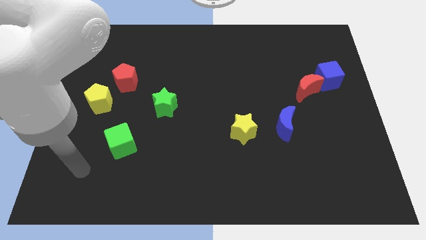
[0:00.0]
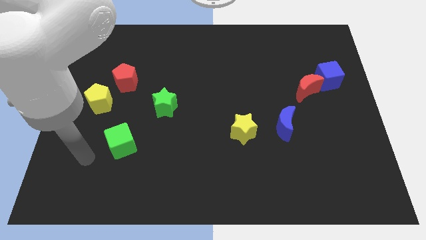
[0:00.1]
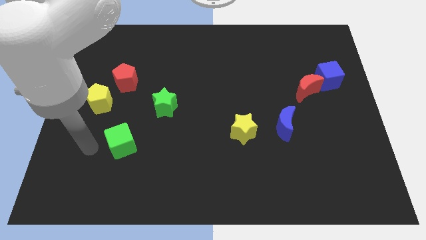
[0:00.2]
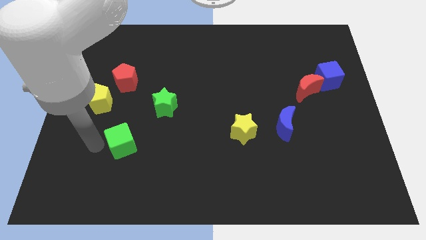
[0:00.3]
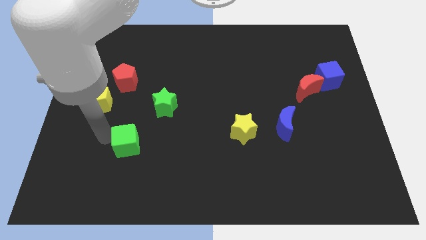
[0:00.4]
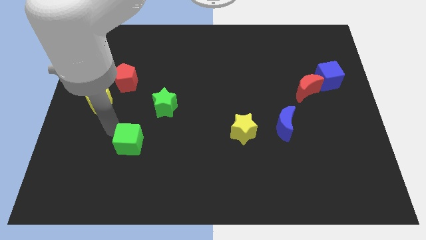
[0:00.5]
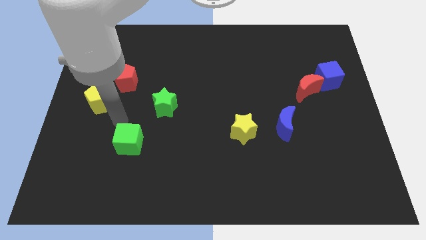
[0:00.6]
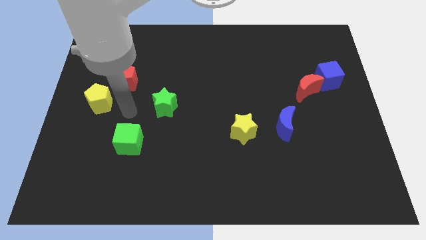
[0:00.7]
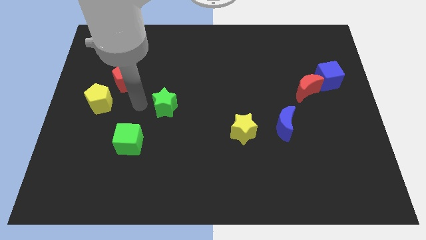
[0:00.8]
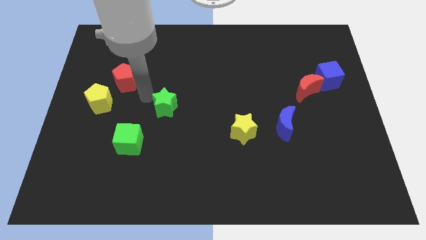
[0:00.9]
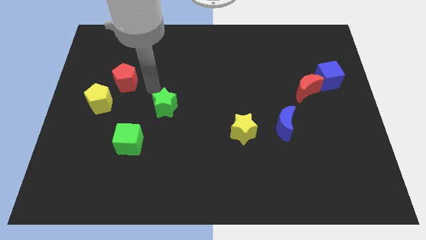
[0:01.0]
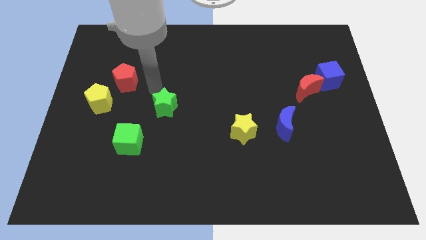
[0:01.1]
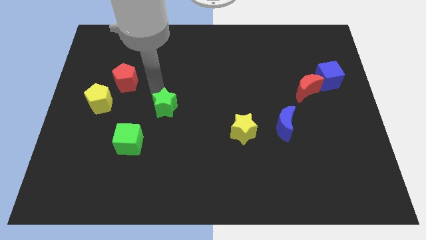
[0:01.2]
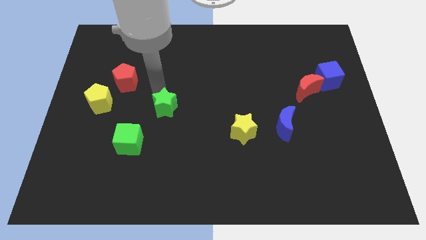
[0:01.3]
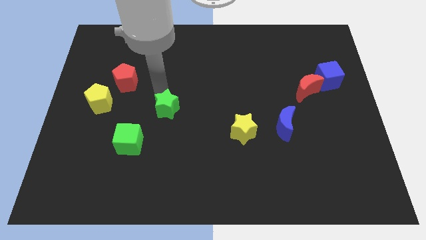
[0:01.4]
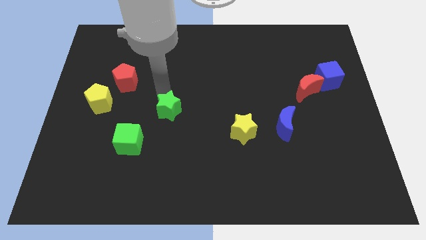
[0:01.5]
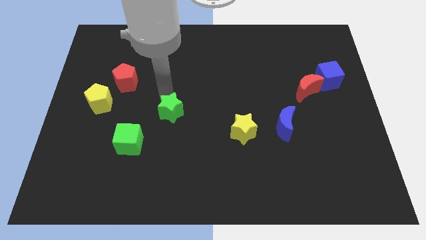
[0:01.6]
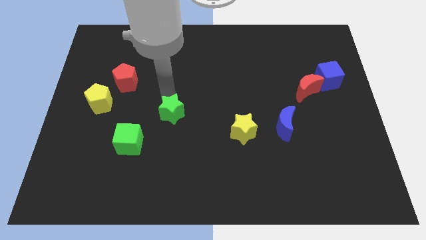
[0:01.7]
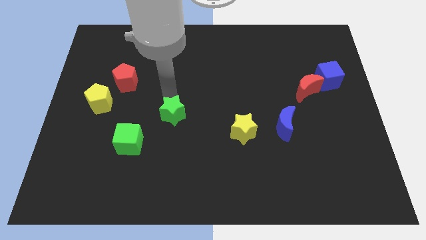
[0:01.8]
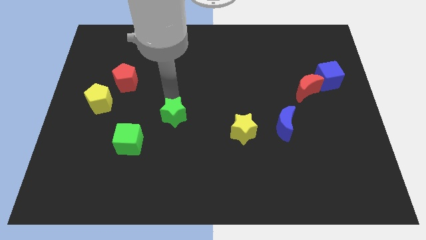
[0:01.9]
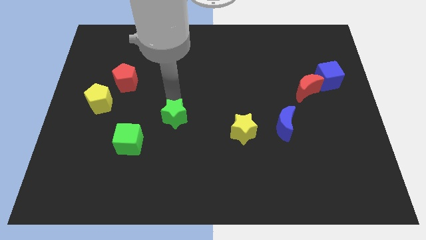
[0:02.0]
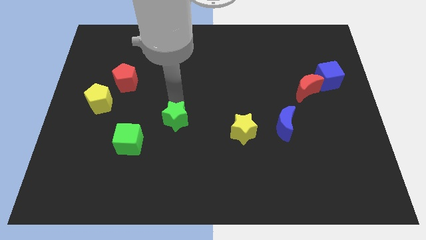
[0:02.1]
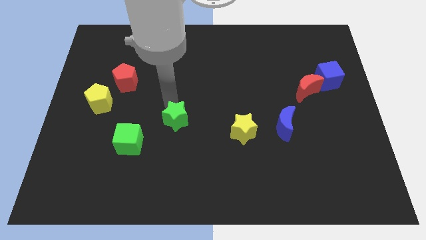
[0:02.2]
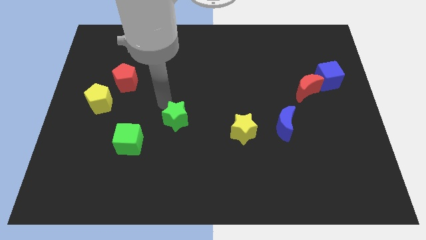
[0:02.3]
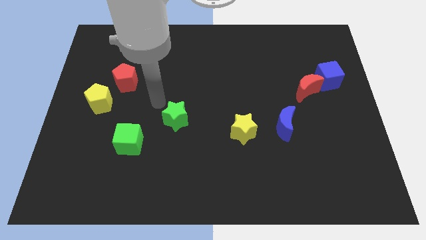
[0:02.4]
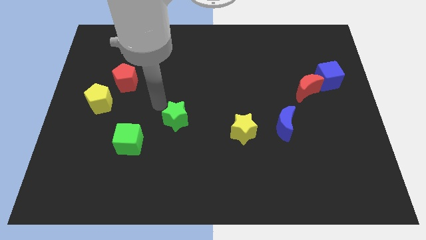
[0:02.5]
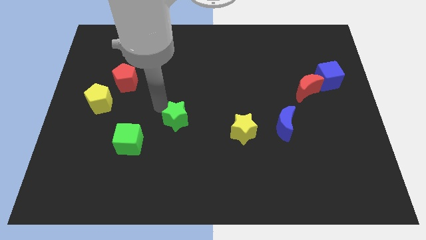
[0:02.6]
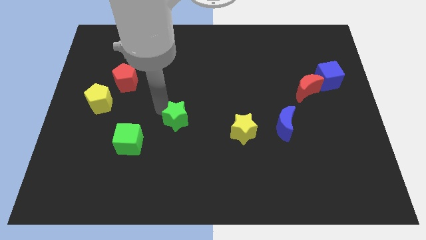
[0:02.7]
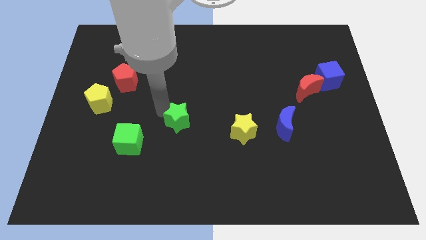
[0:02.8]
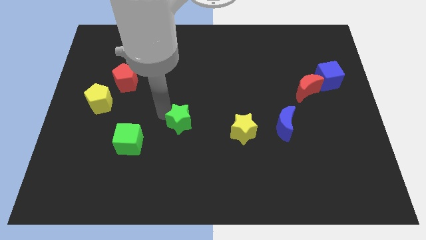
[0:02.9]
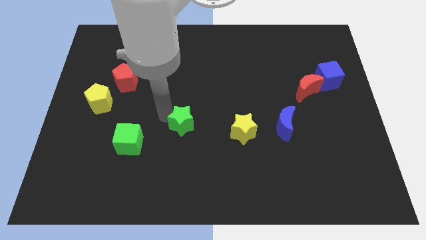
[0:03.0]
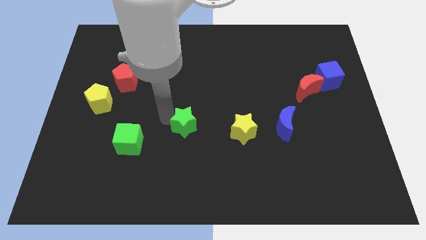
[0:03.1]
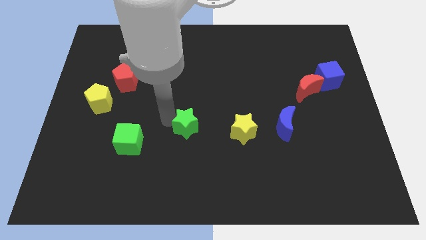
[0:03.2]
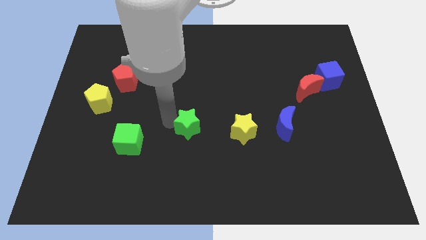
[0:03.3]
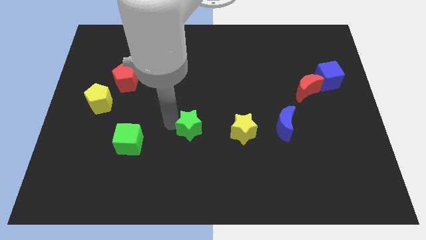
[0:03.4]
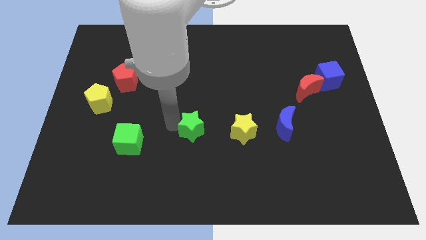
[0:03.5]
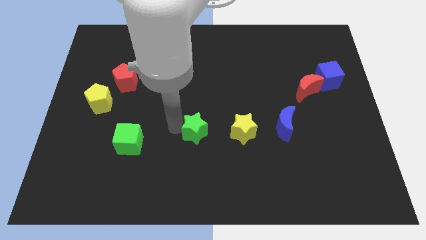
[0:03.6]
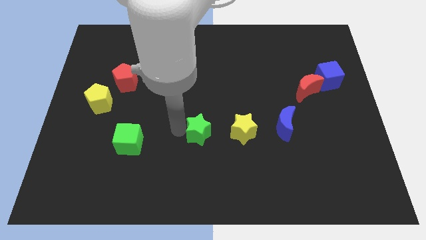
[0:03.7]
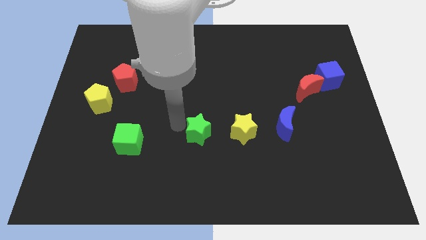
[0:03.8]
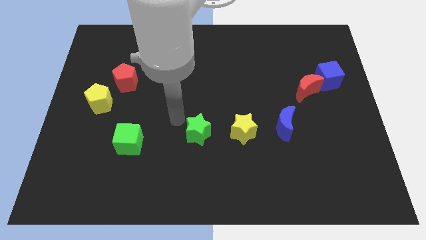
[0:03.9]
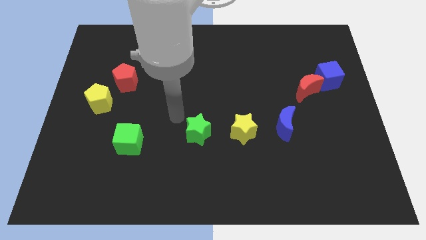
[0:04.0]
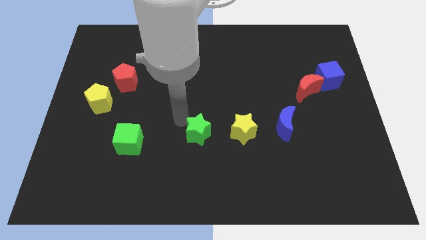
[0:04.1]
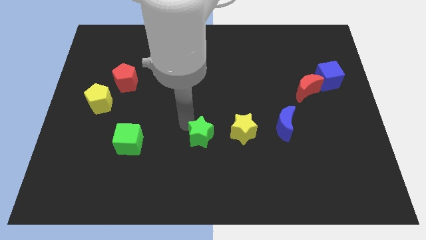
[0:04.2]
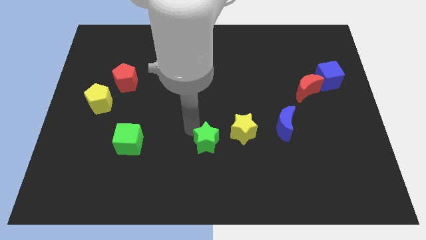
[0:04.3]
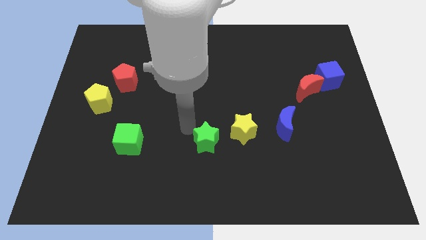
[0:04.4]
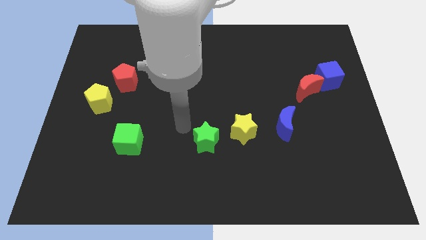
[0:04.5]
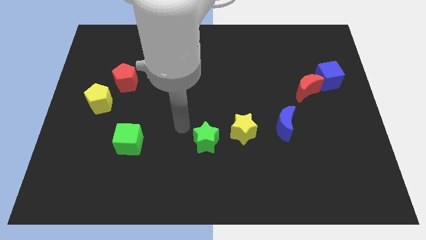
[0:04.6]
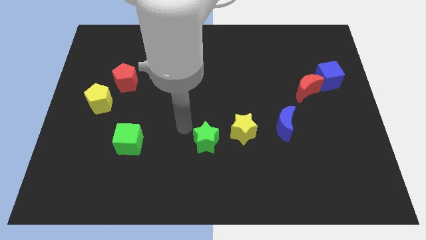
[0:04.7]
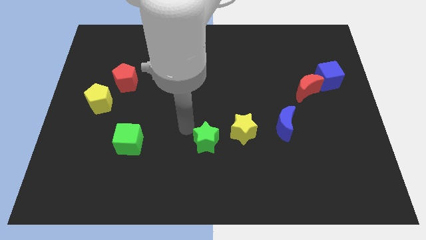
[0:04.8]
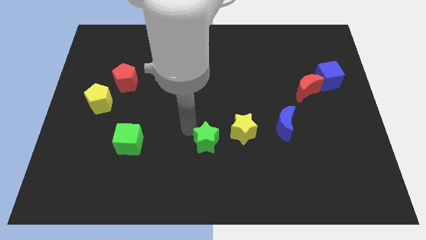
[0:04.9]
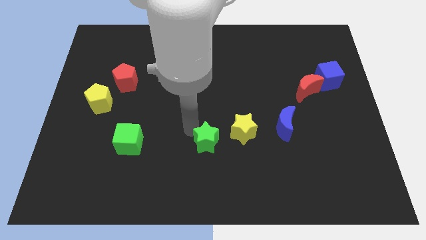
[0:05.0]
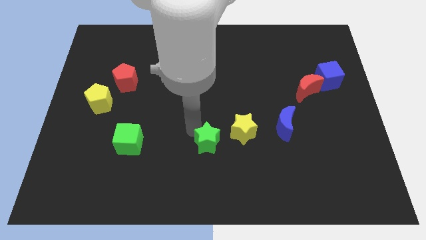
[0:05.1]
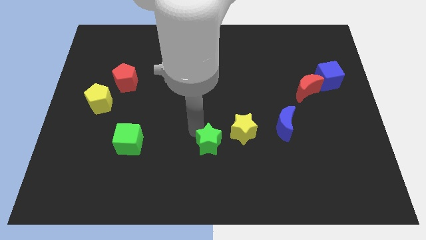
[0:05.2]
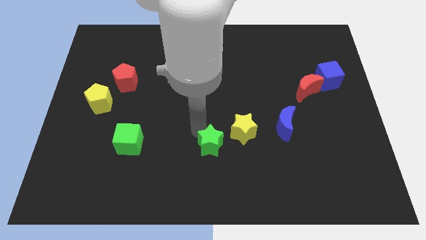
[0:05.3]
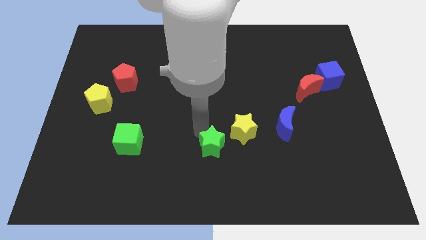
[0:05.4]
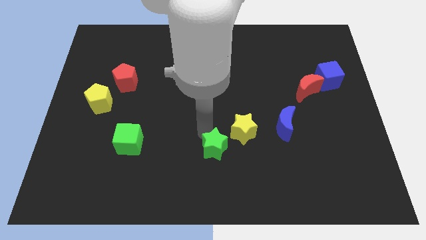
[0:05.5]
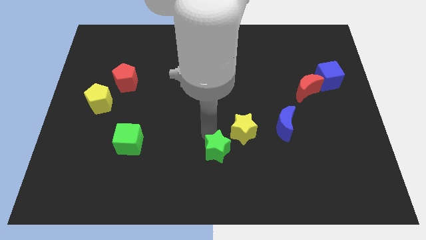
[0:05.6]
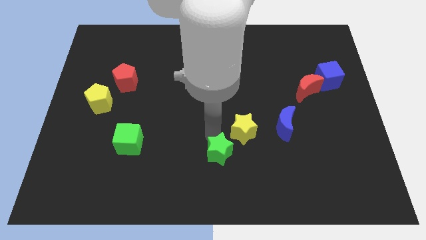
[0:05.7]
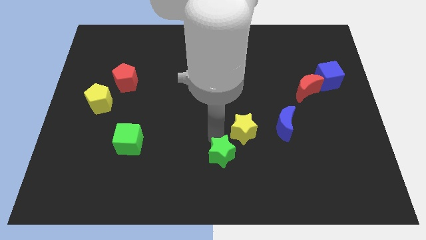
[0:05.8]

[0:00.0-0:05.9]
move the green star below the yellow star
